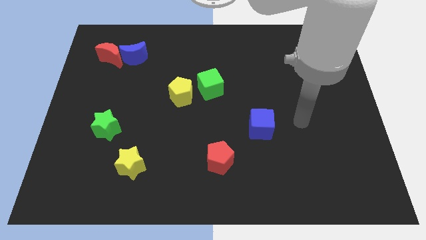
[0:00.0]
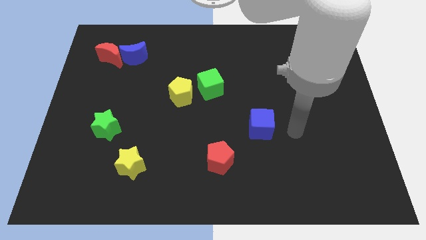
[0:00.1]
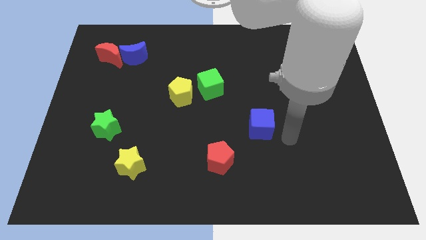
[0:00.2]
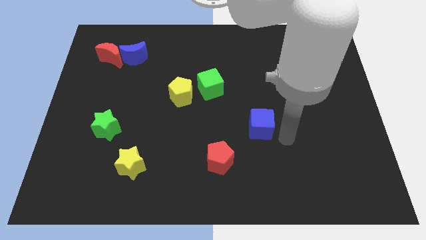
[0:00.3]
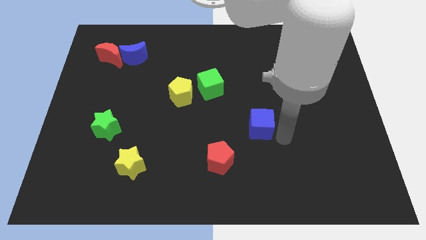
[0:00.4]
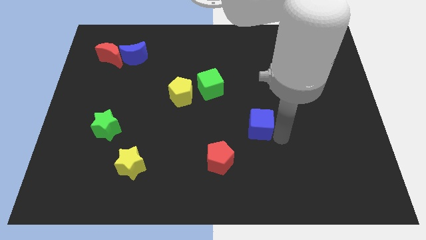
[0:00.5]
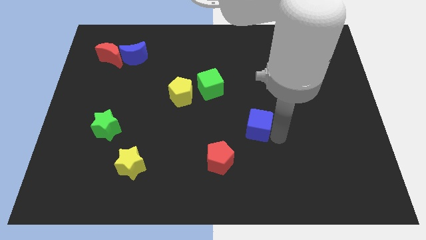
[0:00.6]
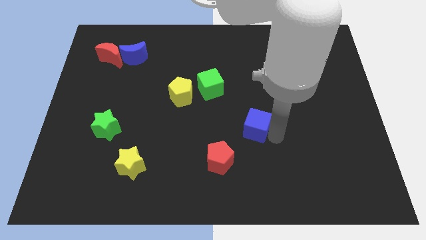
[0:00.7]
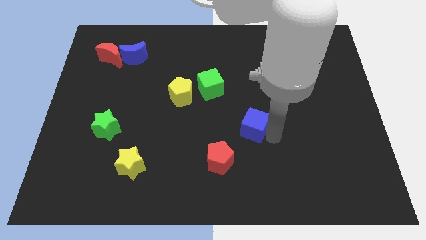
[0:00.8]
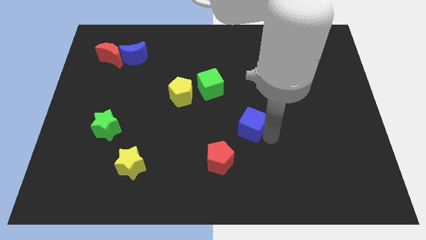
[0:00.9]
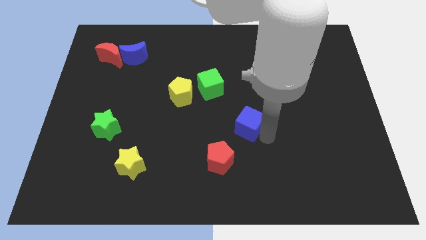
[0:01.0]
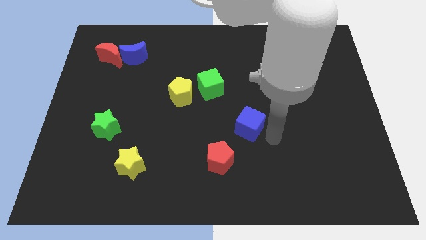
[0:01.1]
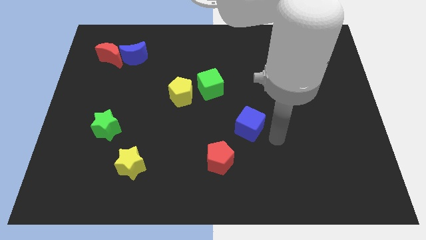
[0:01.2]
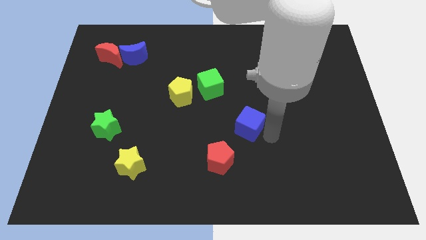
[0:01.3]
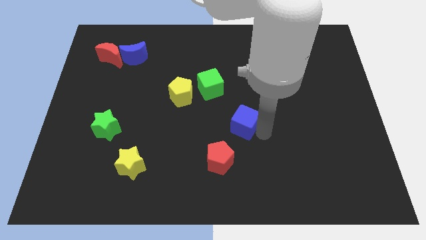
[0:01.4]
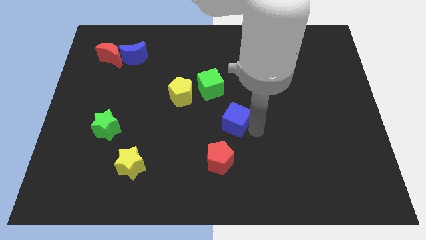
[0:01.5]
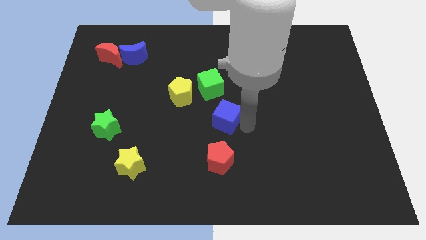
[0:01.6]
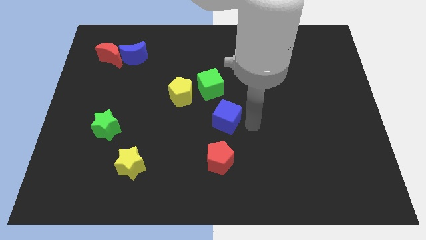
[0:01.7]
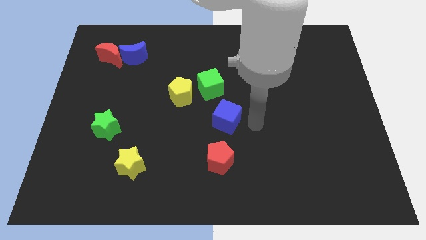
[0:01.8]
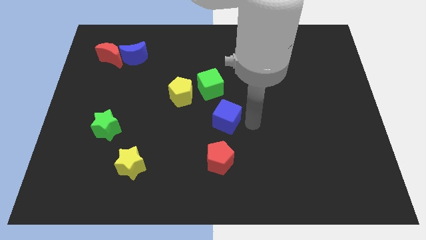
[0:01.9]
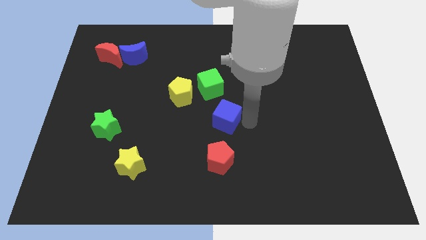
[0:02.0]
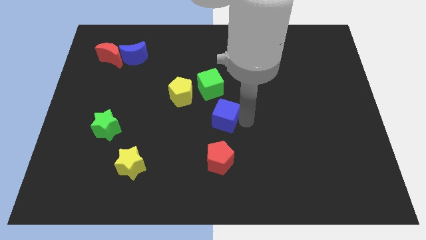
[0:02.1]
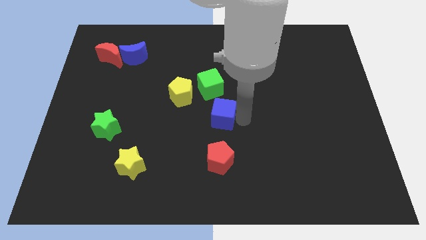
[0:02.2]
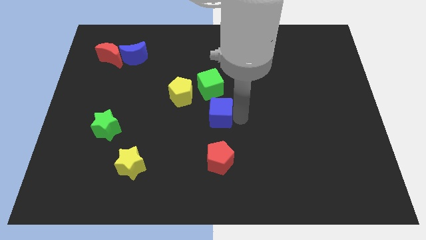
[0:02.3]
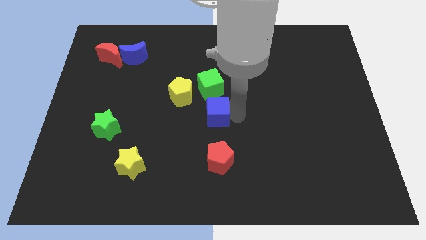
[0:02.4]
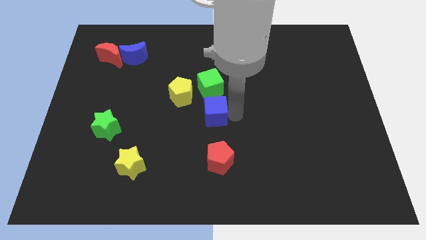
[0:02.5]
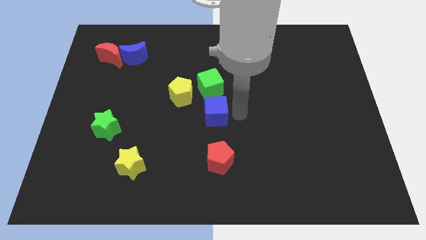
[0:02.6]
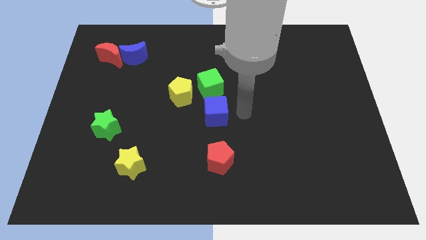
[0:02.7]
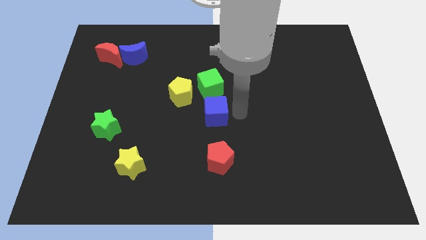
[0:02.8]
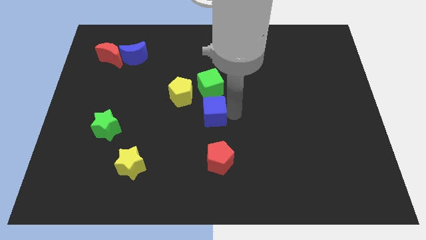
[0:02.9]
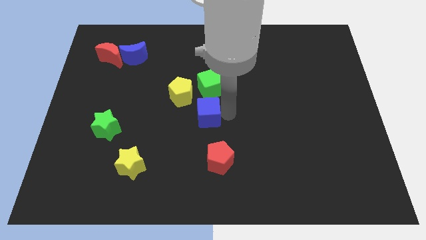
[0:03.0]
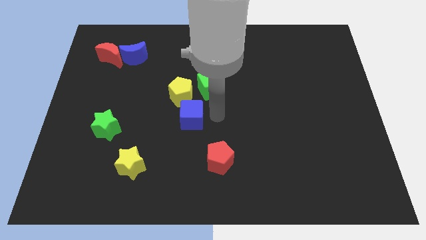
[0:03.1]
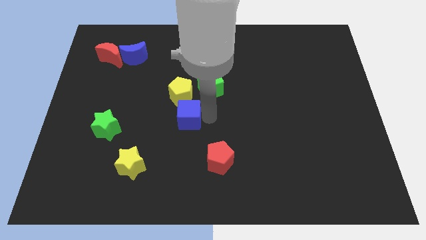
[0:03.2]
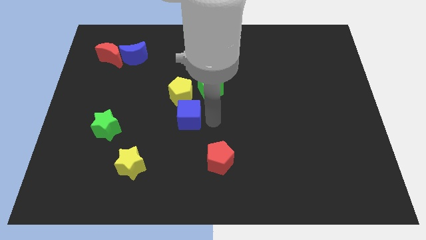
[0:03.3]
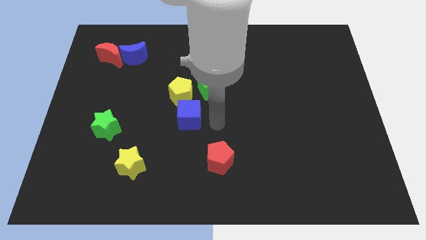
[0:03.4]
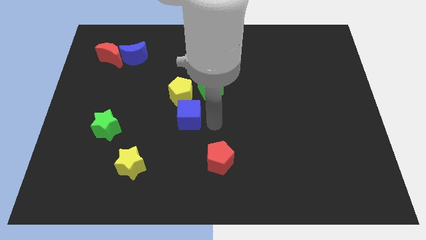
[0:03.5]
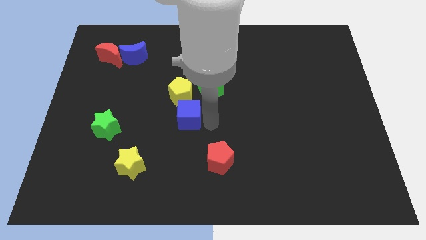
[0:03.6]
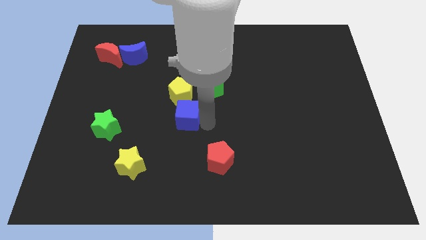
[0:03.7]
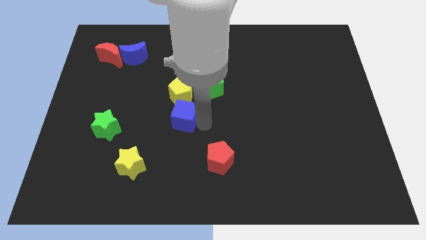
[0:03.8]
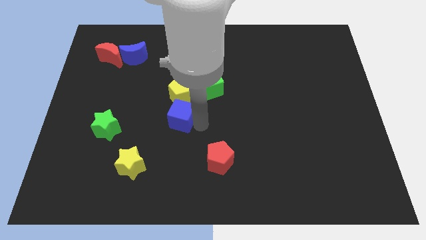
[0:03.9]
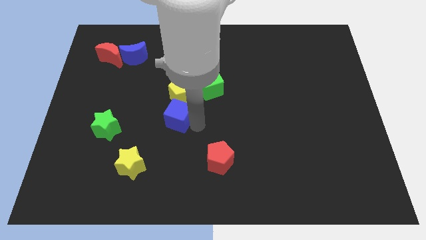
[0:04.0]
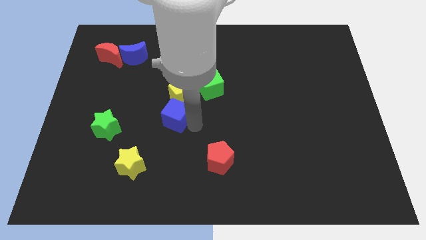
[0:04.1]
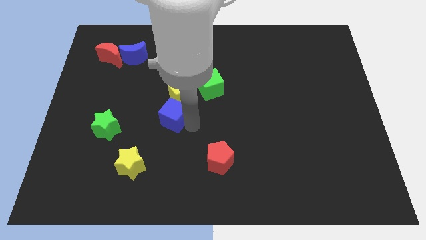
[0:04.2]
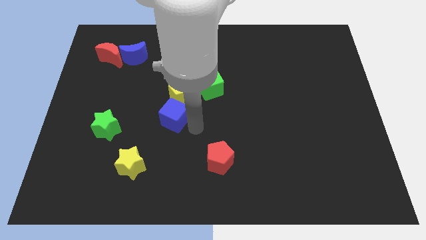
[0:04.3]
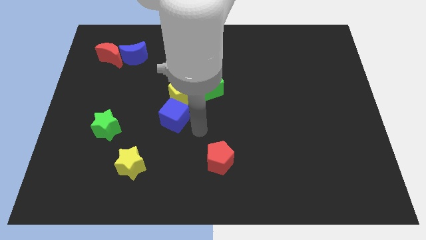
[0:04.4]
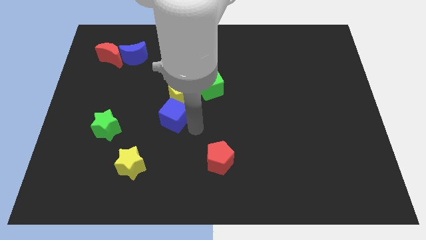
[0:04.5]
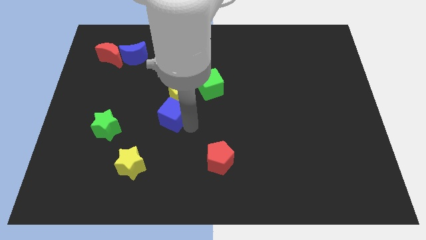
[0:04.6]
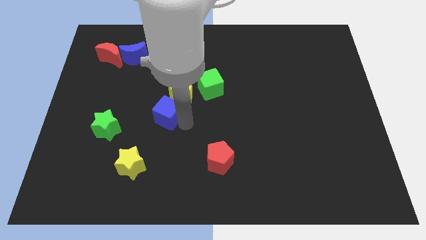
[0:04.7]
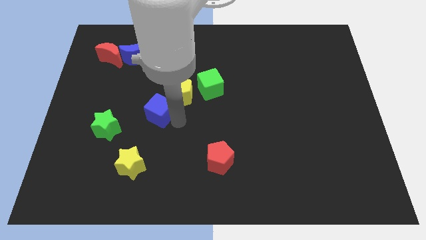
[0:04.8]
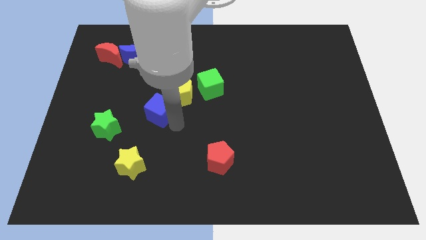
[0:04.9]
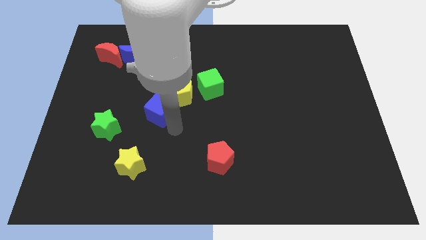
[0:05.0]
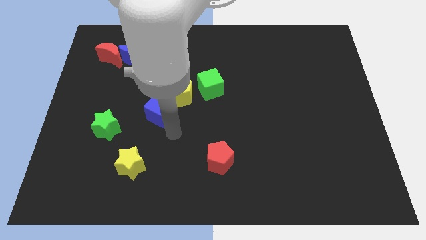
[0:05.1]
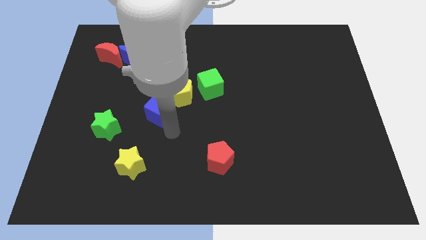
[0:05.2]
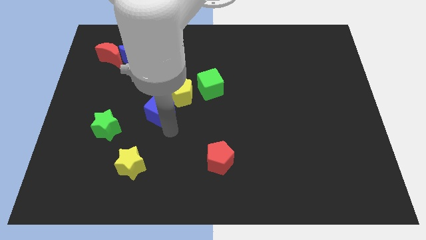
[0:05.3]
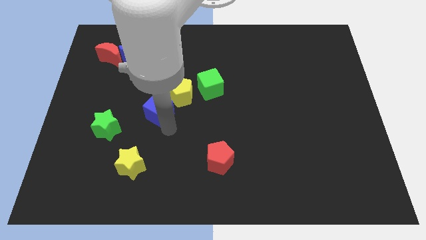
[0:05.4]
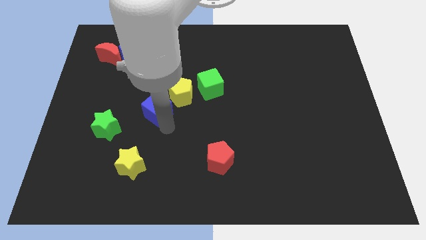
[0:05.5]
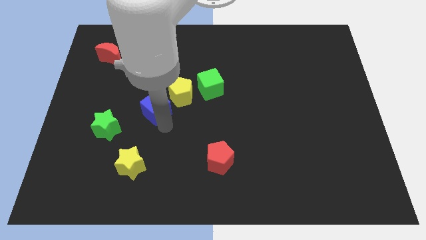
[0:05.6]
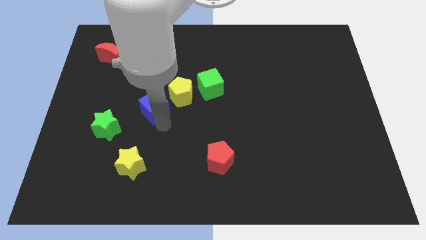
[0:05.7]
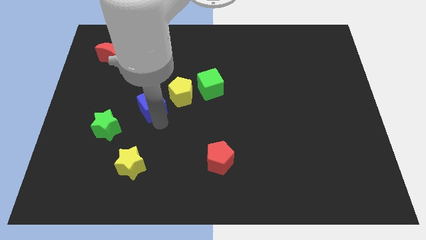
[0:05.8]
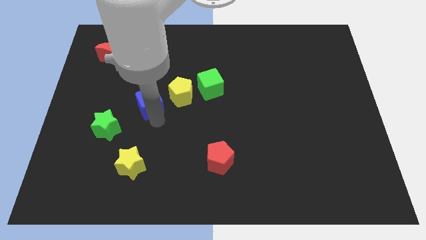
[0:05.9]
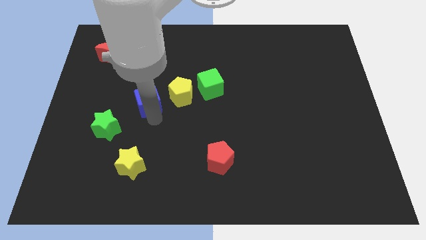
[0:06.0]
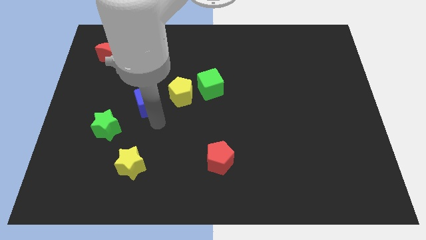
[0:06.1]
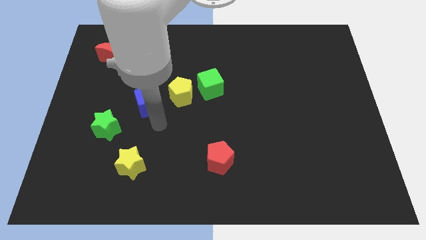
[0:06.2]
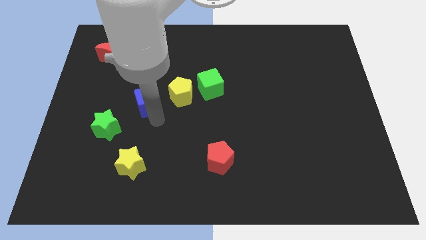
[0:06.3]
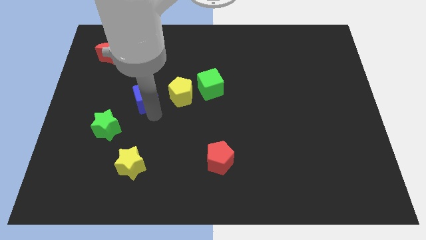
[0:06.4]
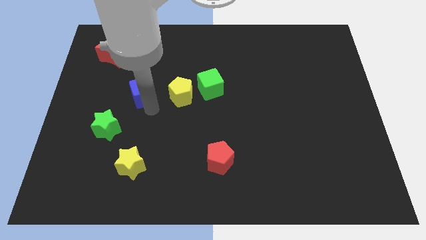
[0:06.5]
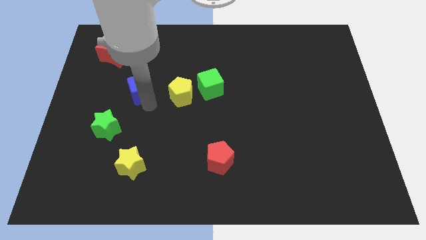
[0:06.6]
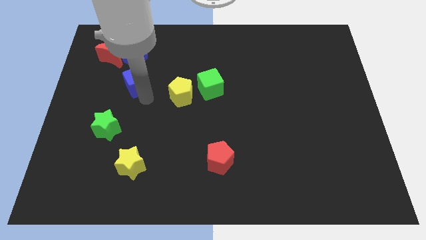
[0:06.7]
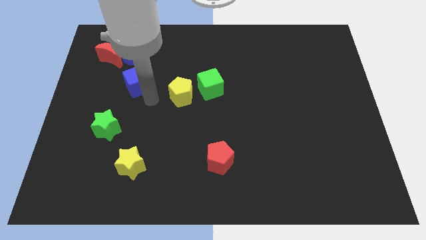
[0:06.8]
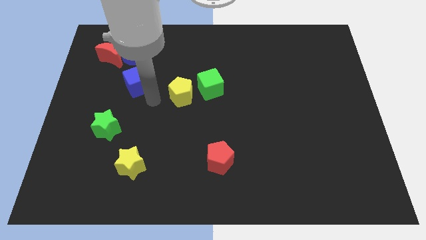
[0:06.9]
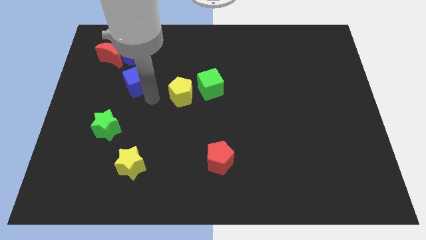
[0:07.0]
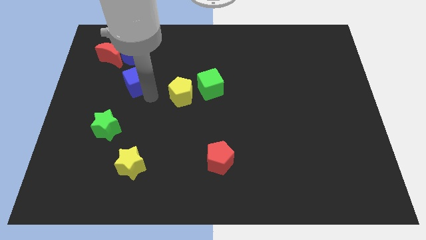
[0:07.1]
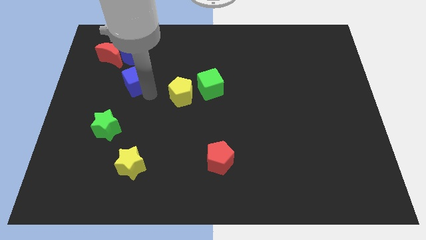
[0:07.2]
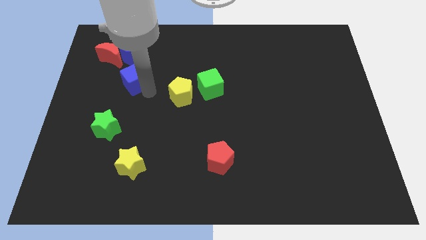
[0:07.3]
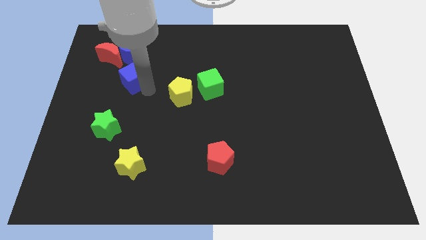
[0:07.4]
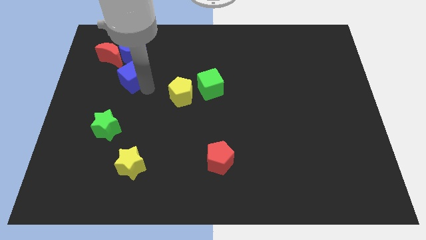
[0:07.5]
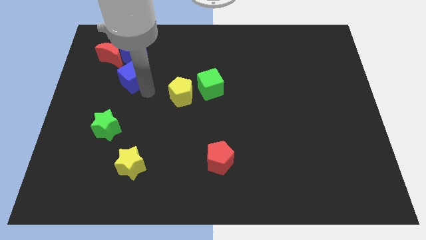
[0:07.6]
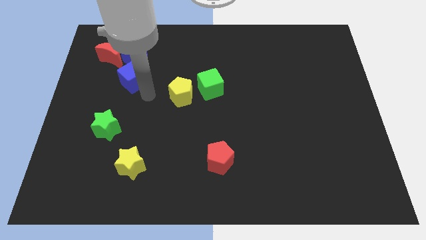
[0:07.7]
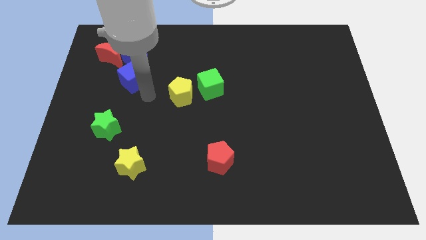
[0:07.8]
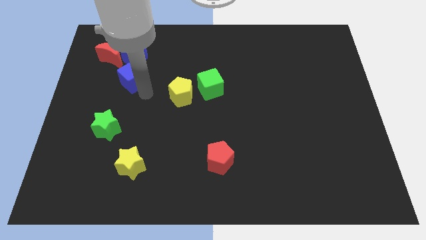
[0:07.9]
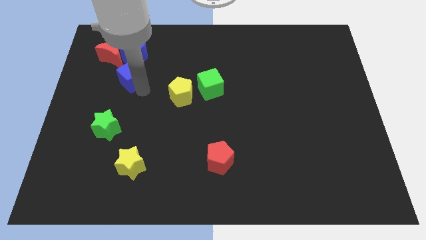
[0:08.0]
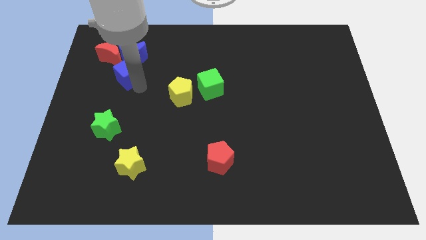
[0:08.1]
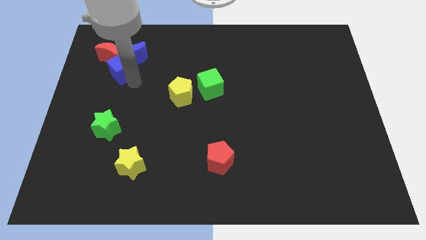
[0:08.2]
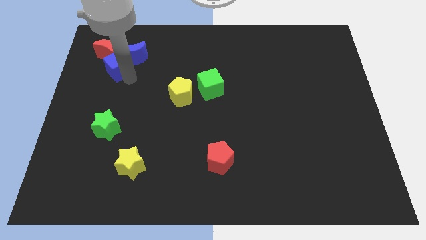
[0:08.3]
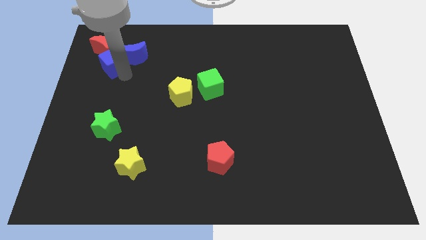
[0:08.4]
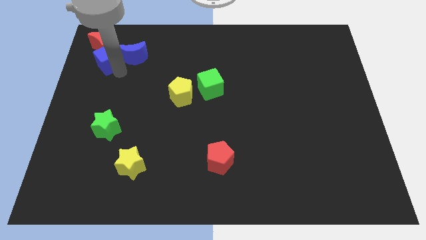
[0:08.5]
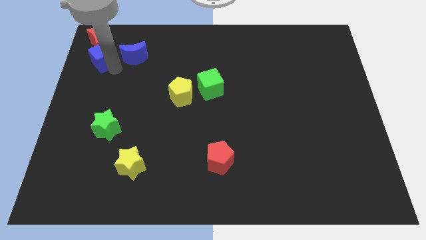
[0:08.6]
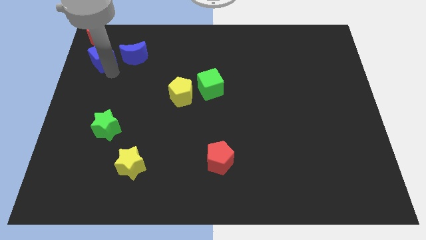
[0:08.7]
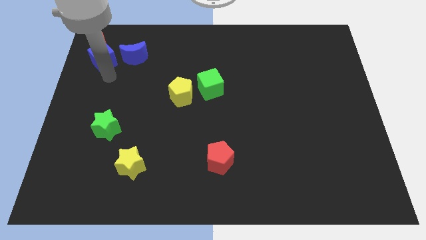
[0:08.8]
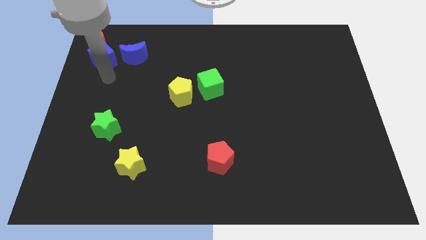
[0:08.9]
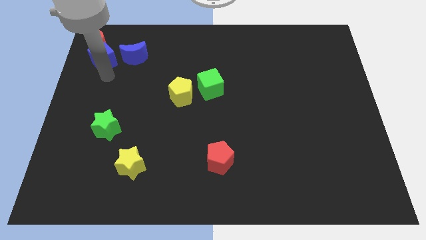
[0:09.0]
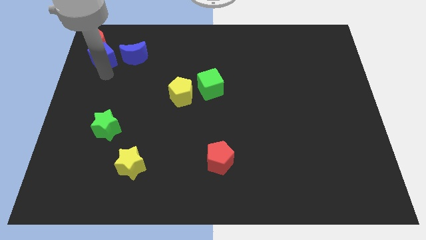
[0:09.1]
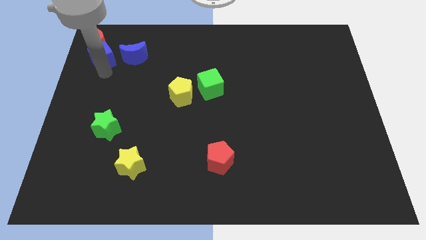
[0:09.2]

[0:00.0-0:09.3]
slide the blue cube close to the red moon
